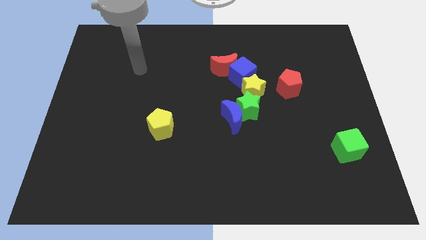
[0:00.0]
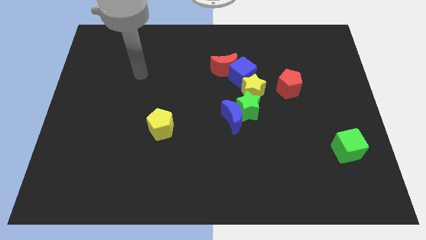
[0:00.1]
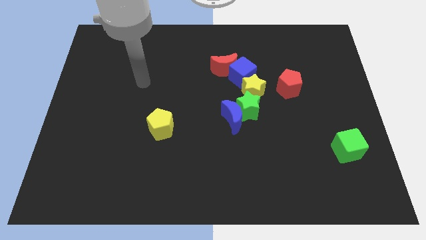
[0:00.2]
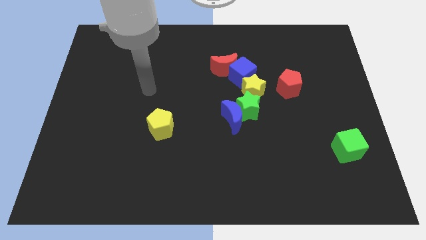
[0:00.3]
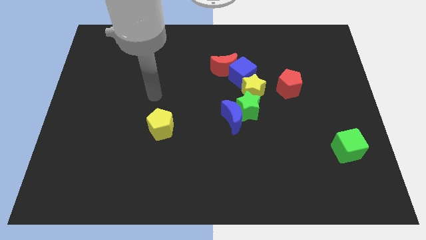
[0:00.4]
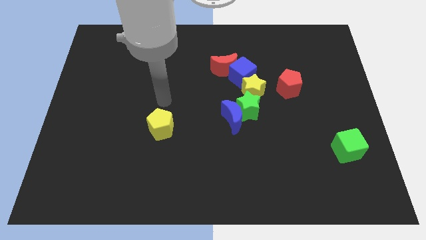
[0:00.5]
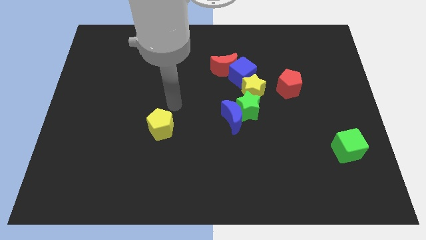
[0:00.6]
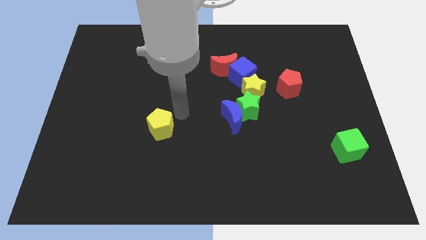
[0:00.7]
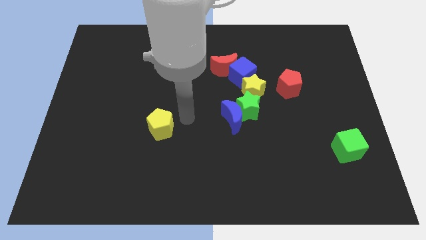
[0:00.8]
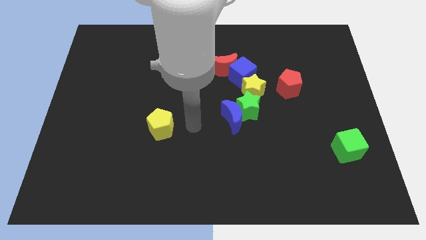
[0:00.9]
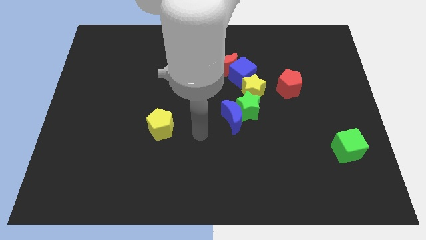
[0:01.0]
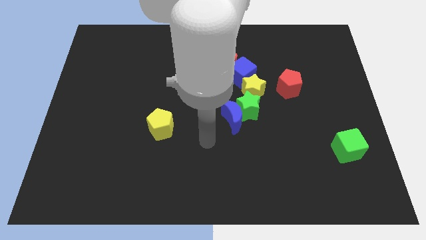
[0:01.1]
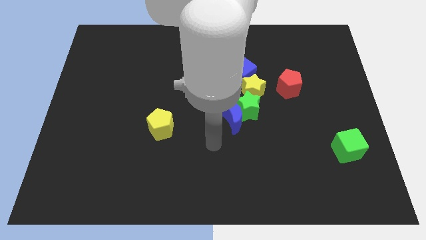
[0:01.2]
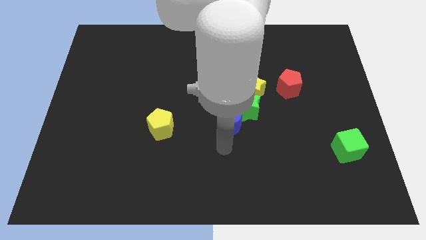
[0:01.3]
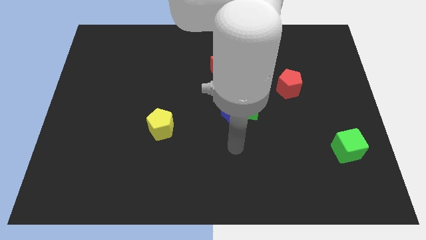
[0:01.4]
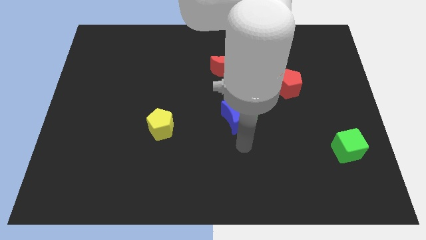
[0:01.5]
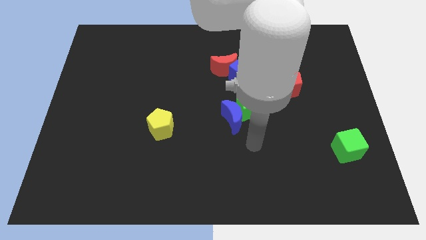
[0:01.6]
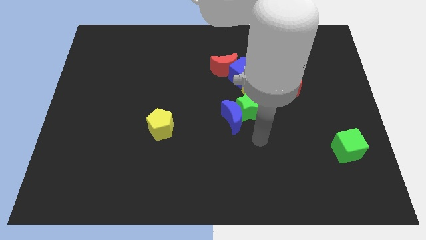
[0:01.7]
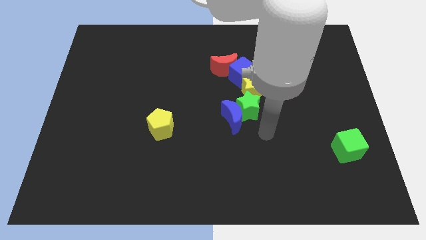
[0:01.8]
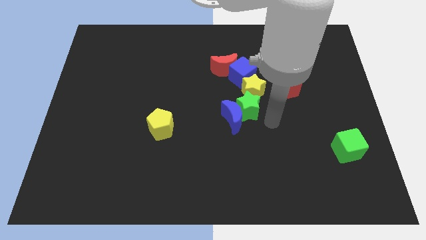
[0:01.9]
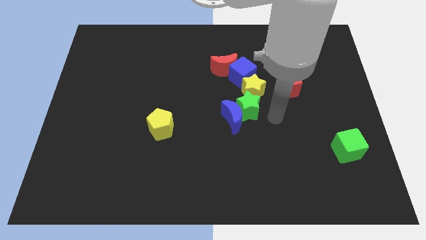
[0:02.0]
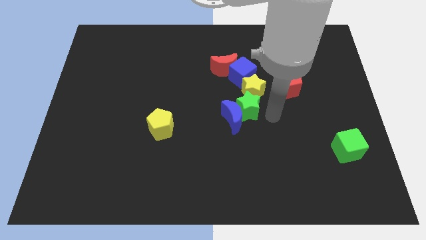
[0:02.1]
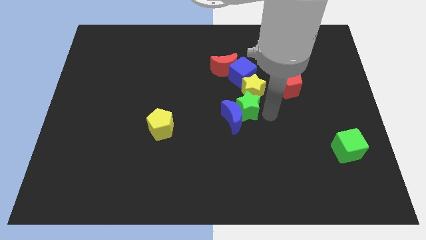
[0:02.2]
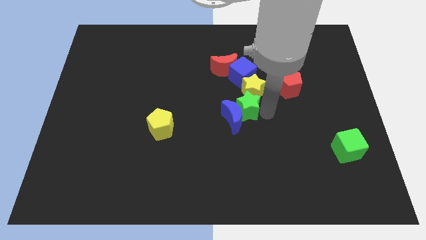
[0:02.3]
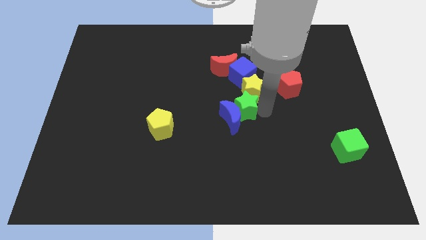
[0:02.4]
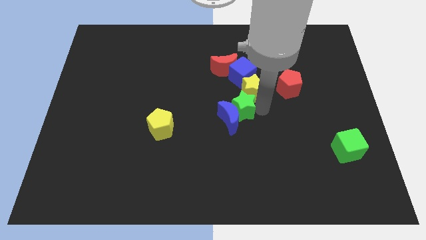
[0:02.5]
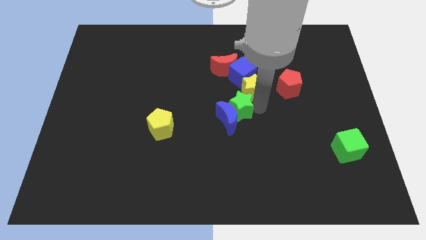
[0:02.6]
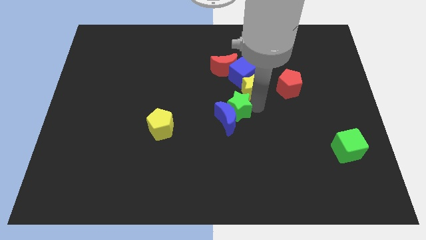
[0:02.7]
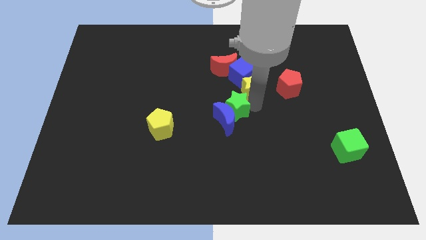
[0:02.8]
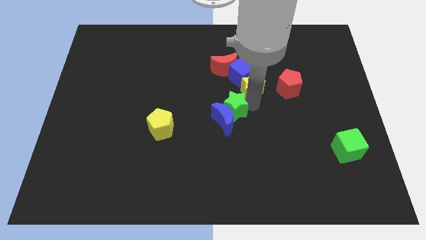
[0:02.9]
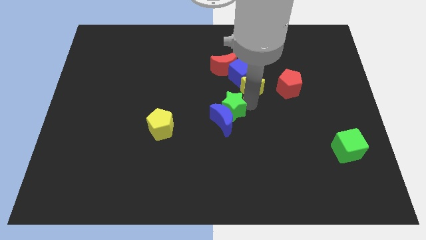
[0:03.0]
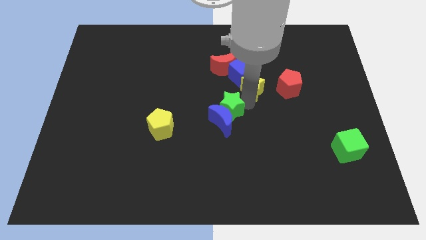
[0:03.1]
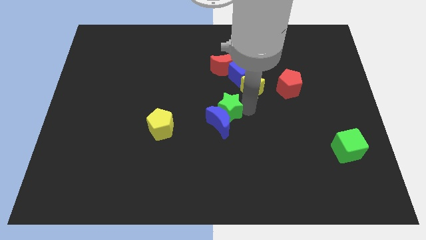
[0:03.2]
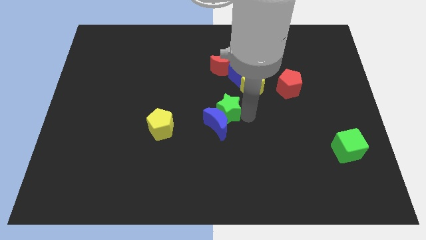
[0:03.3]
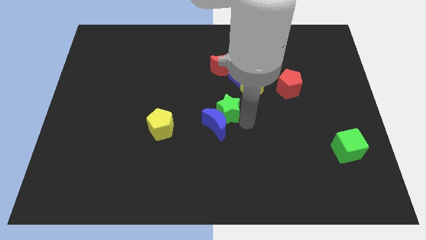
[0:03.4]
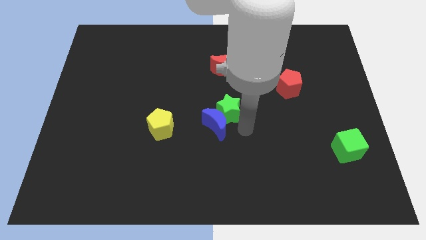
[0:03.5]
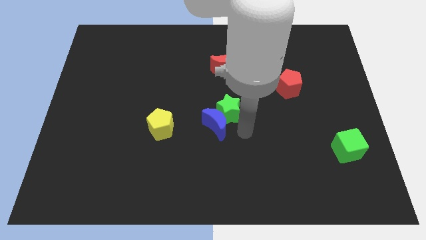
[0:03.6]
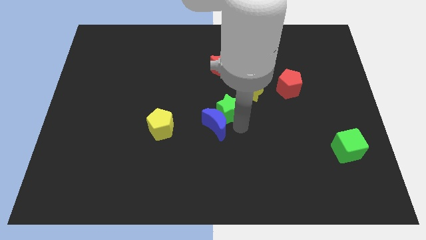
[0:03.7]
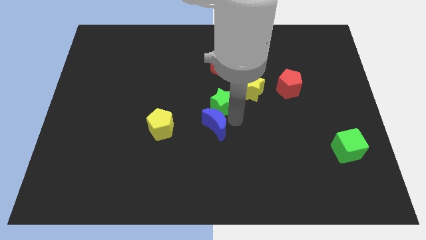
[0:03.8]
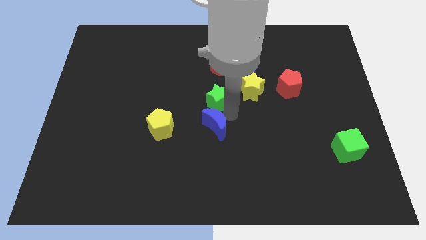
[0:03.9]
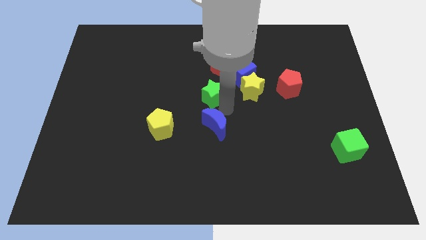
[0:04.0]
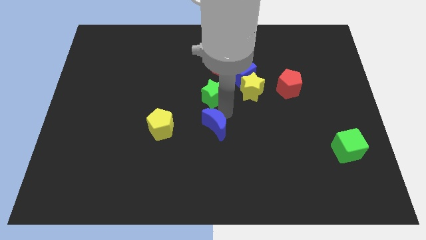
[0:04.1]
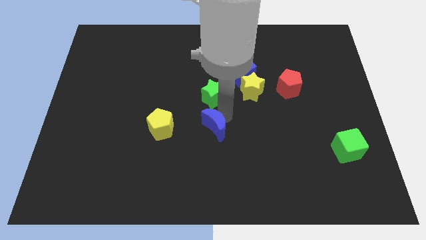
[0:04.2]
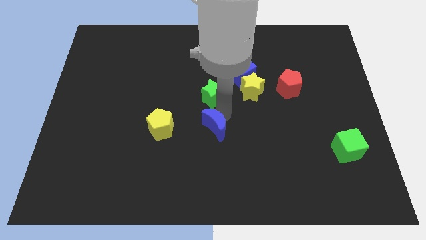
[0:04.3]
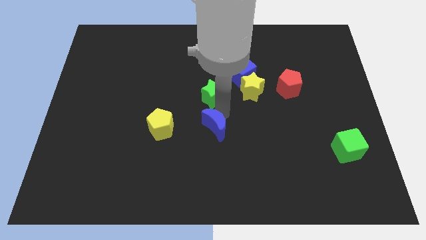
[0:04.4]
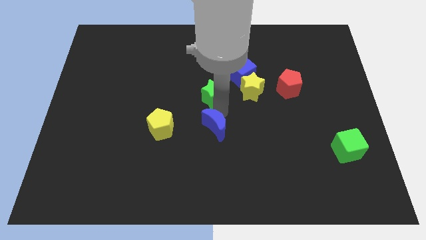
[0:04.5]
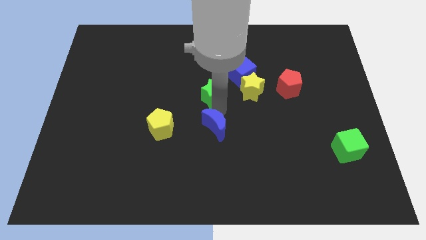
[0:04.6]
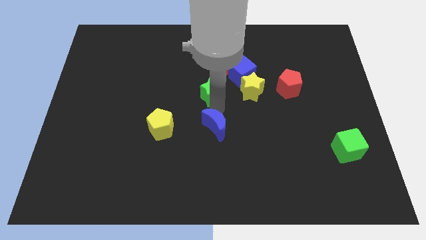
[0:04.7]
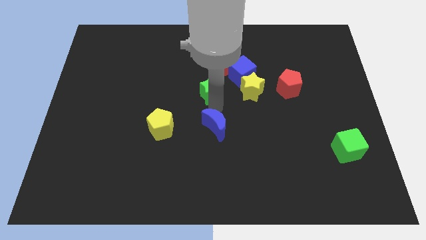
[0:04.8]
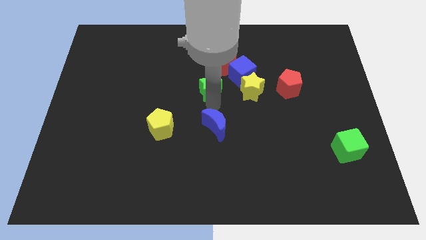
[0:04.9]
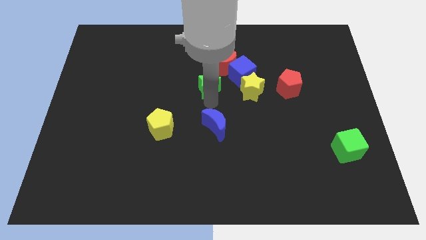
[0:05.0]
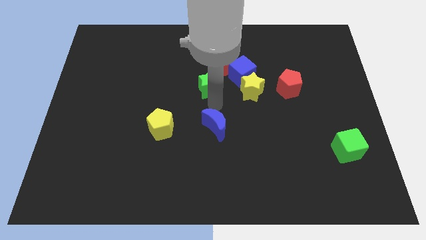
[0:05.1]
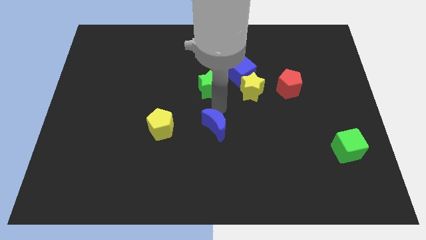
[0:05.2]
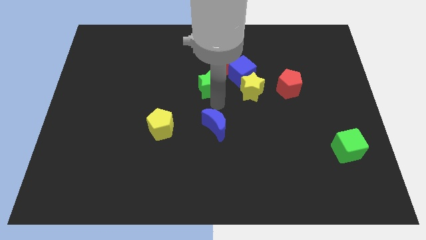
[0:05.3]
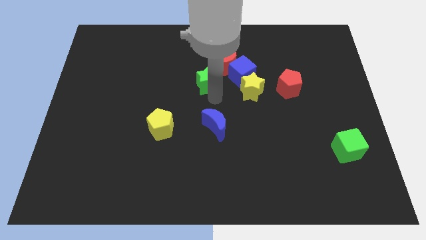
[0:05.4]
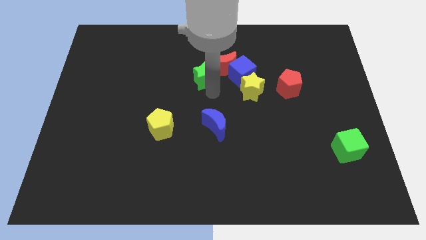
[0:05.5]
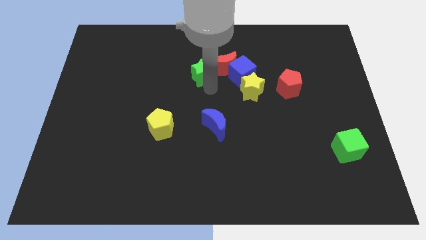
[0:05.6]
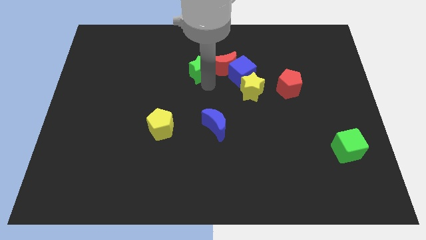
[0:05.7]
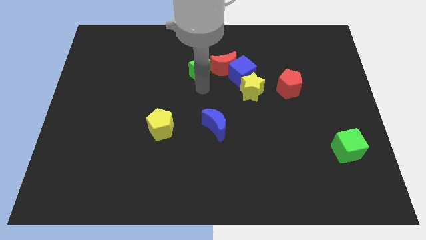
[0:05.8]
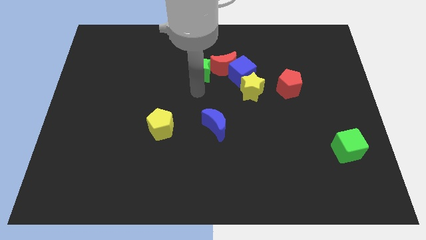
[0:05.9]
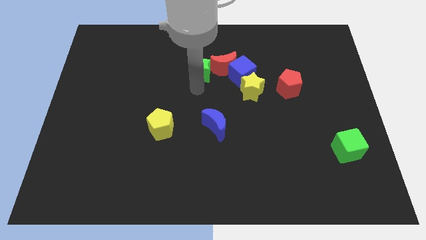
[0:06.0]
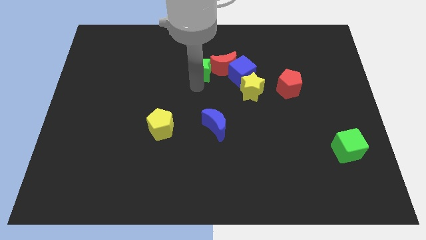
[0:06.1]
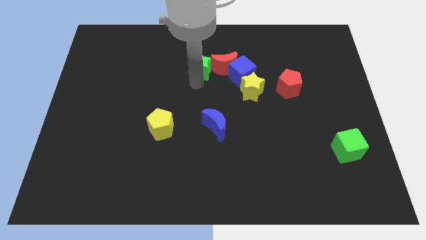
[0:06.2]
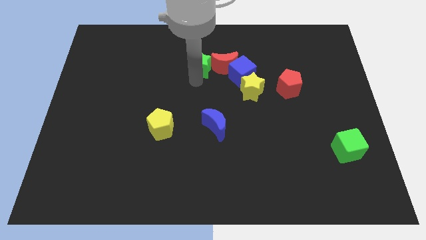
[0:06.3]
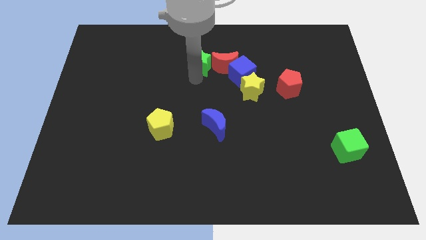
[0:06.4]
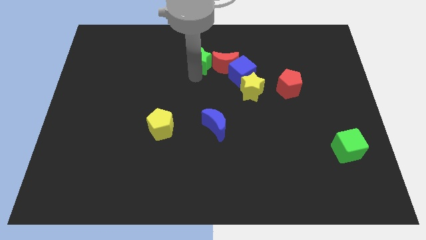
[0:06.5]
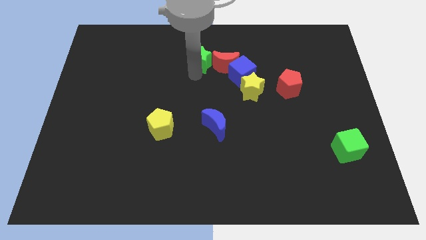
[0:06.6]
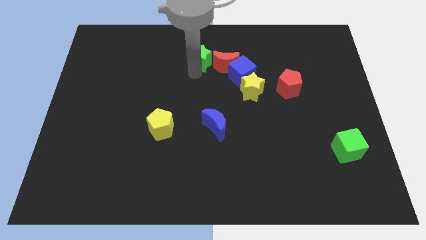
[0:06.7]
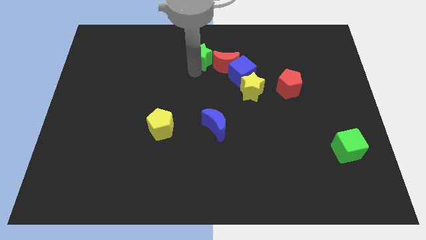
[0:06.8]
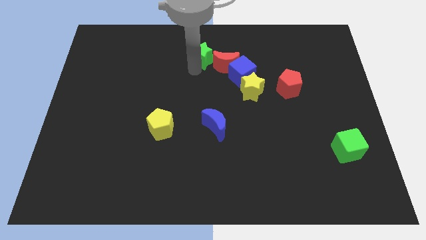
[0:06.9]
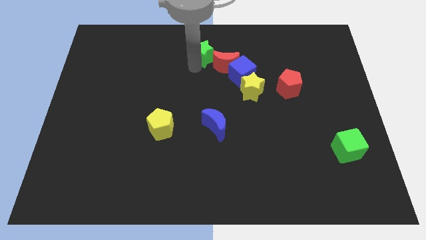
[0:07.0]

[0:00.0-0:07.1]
move the green star to the top
